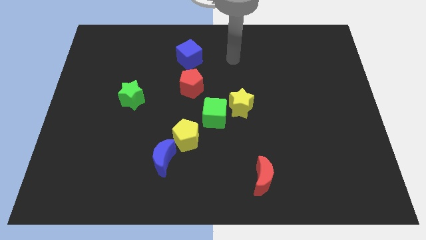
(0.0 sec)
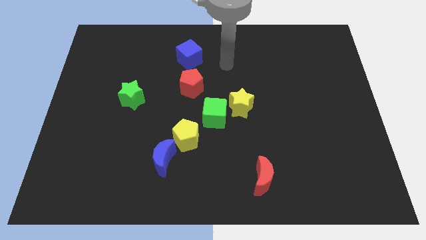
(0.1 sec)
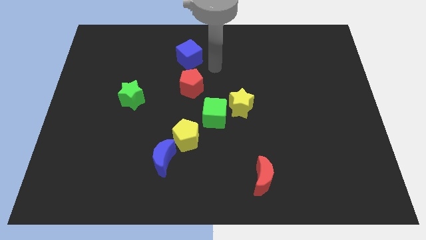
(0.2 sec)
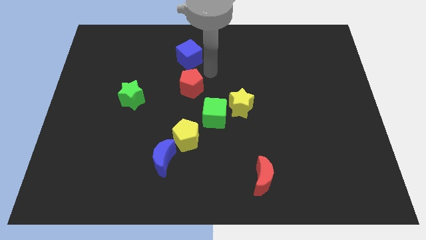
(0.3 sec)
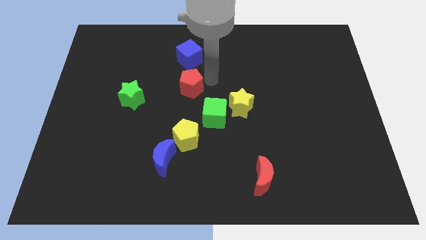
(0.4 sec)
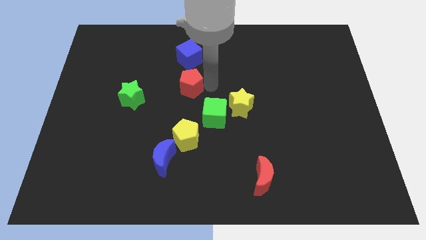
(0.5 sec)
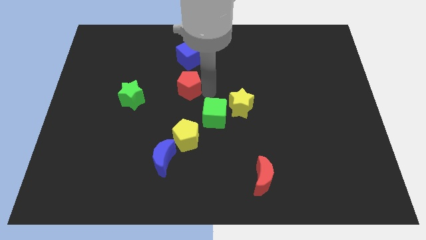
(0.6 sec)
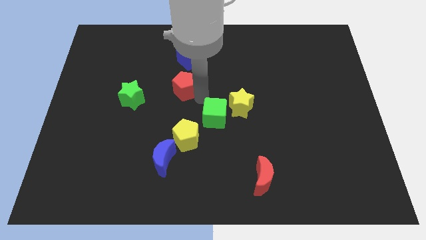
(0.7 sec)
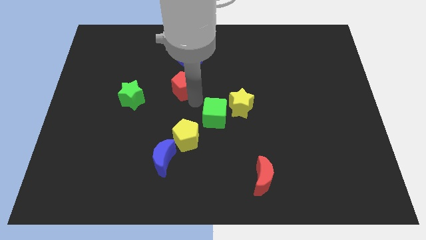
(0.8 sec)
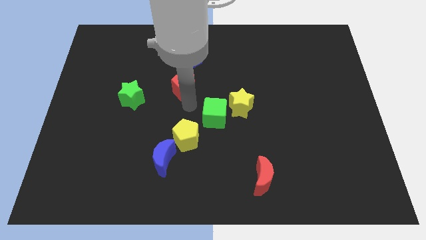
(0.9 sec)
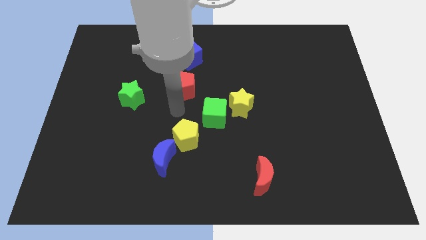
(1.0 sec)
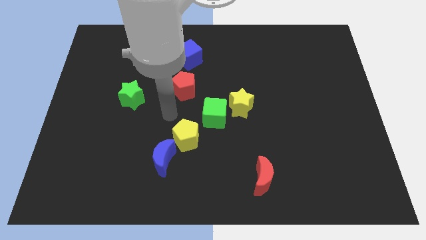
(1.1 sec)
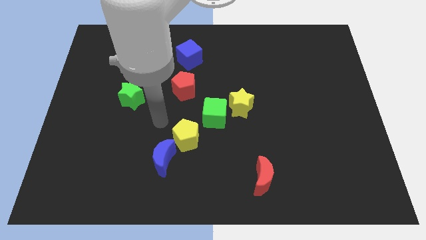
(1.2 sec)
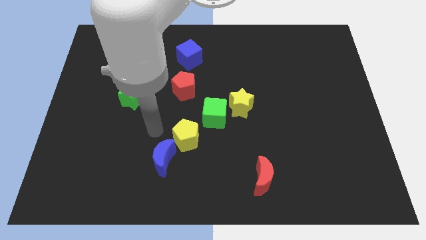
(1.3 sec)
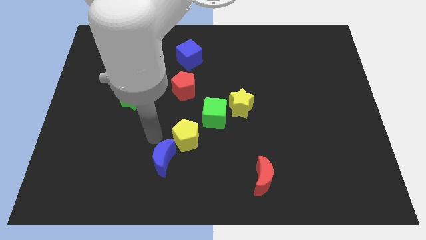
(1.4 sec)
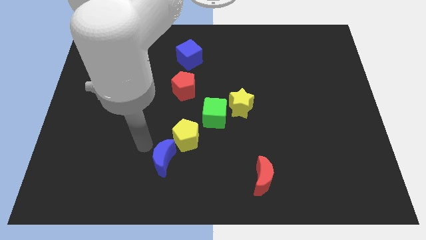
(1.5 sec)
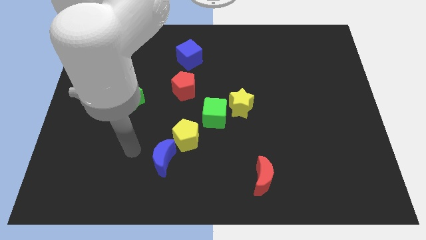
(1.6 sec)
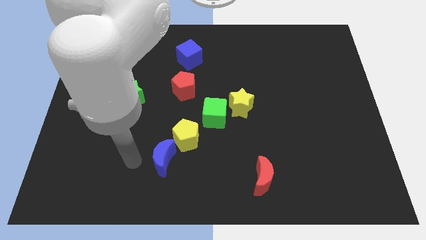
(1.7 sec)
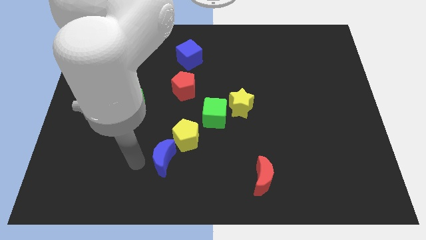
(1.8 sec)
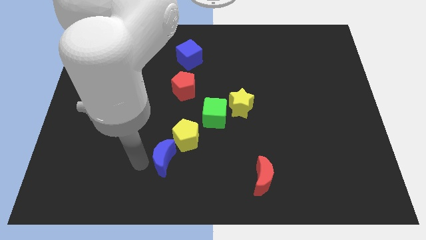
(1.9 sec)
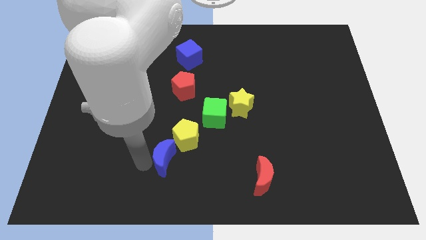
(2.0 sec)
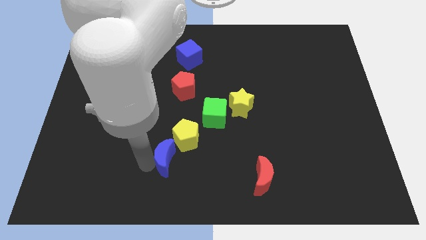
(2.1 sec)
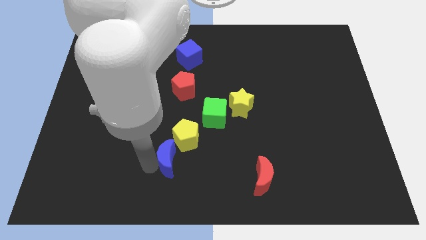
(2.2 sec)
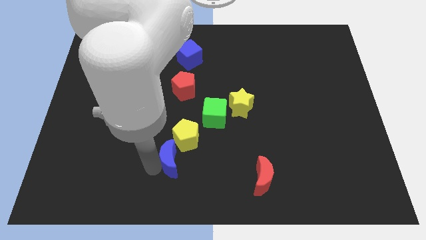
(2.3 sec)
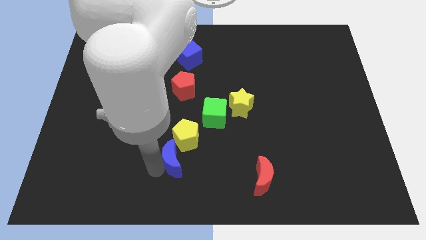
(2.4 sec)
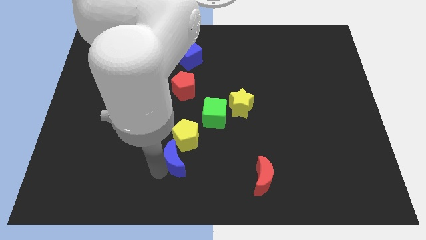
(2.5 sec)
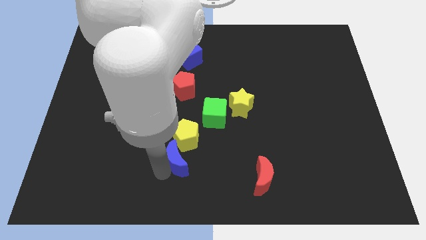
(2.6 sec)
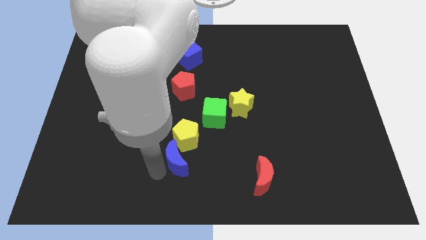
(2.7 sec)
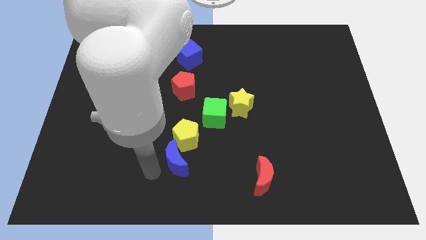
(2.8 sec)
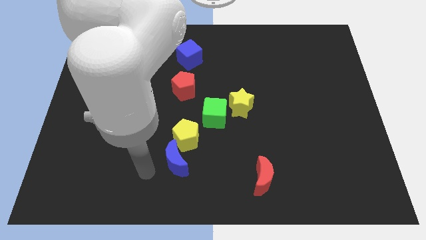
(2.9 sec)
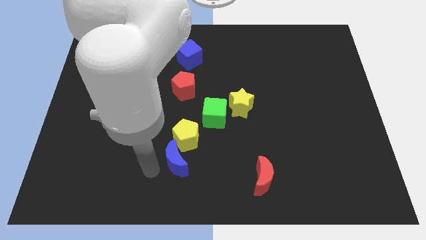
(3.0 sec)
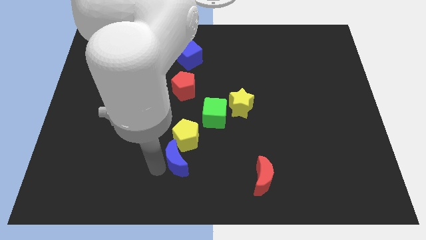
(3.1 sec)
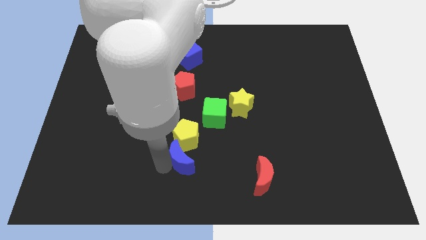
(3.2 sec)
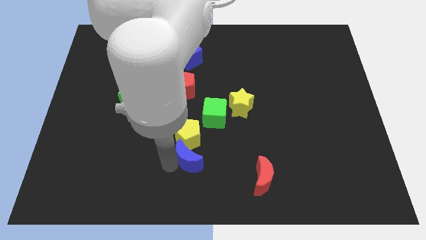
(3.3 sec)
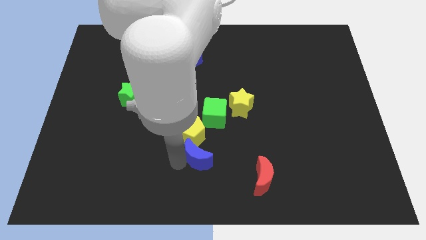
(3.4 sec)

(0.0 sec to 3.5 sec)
slightly slide the blue moon right

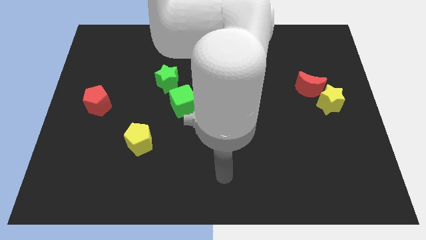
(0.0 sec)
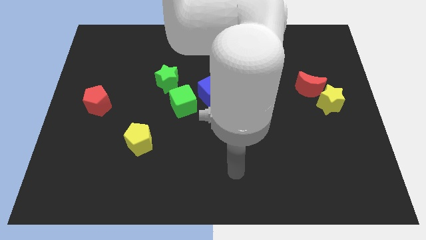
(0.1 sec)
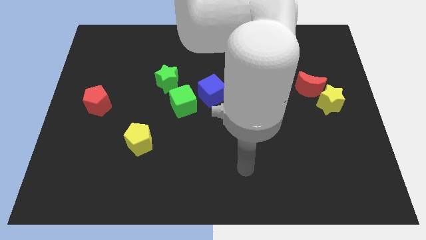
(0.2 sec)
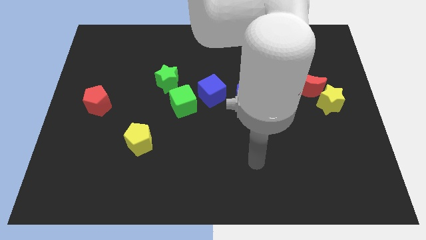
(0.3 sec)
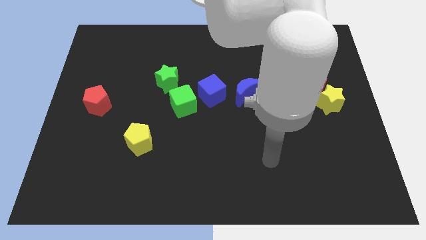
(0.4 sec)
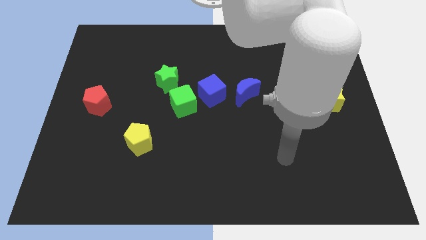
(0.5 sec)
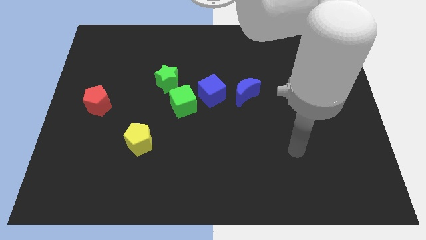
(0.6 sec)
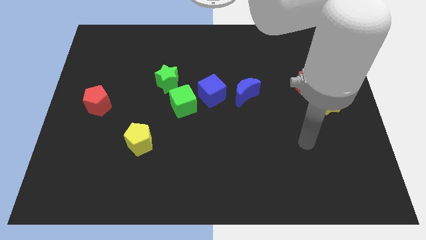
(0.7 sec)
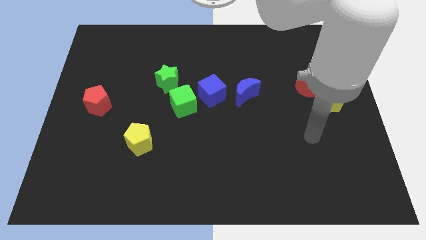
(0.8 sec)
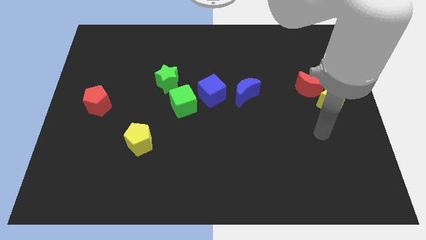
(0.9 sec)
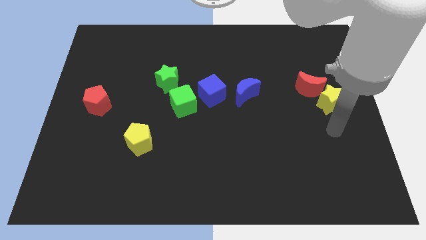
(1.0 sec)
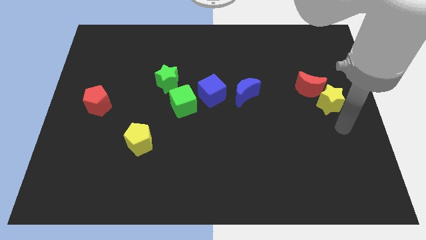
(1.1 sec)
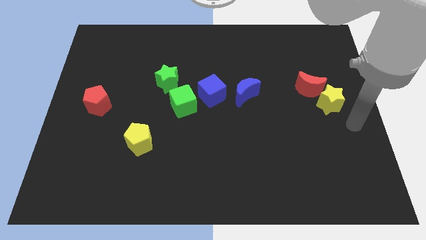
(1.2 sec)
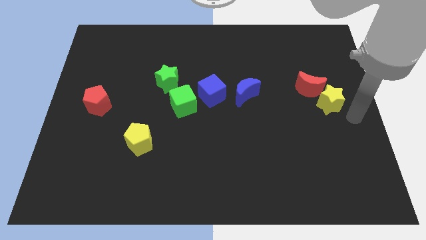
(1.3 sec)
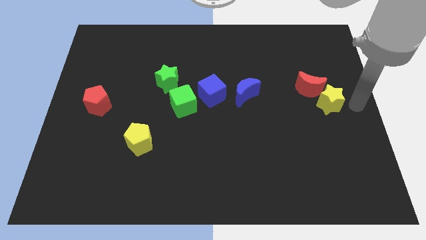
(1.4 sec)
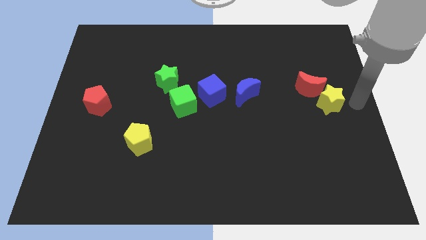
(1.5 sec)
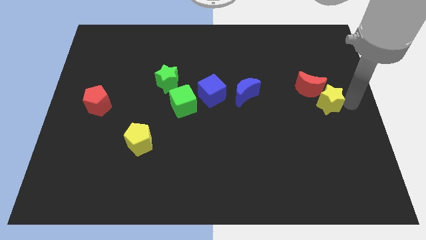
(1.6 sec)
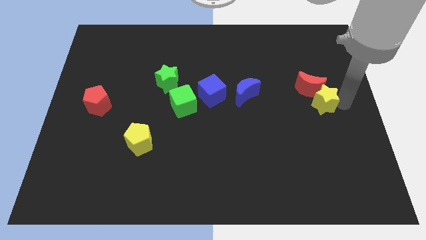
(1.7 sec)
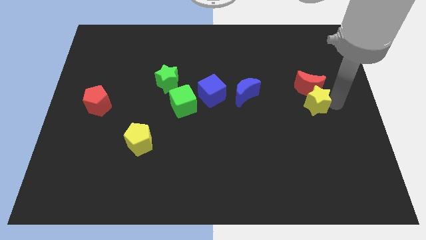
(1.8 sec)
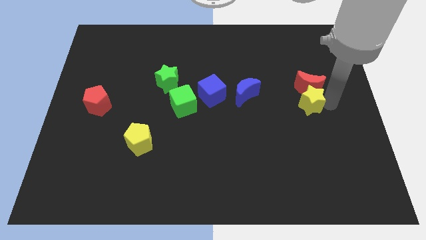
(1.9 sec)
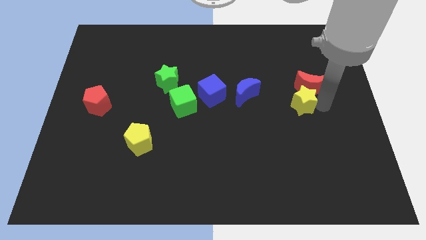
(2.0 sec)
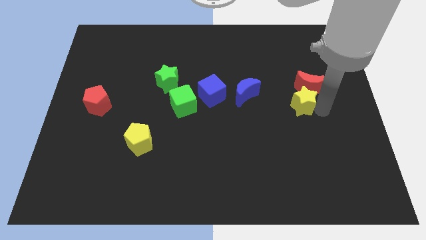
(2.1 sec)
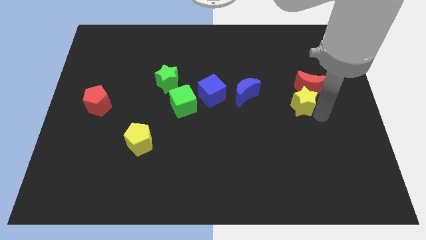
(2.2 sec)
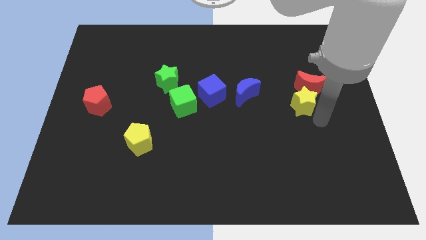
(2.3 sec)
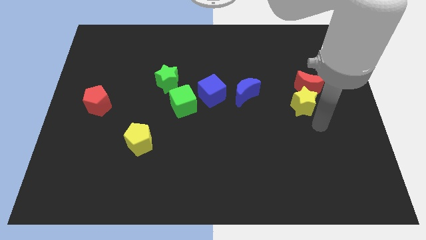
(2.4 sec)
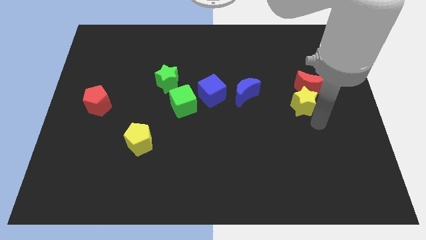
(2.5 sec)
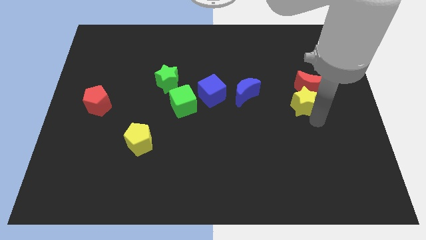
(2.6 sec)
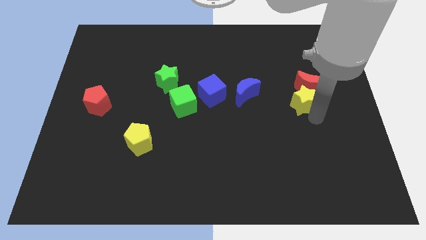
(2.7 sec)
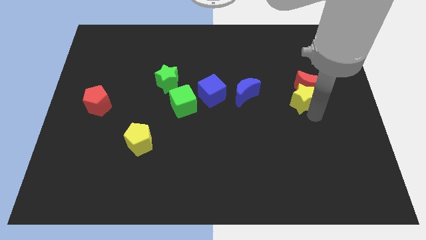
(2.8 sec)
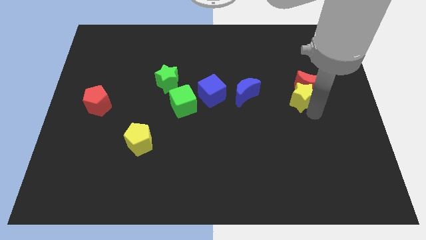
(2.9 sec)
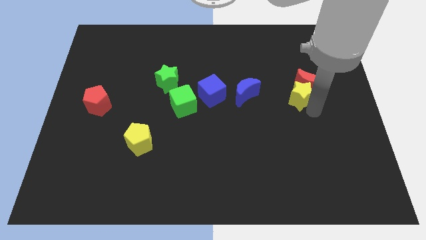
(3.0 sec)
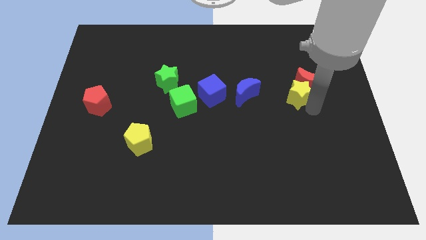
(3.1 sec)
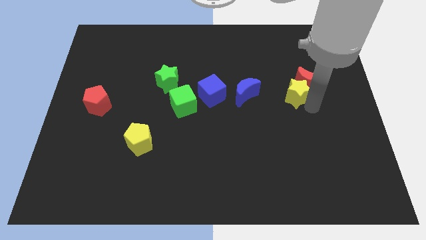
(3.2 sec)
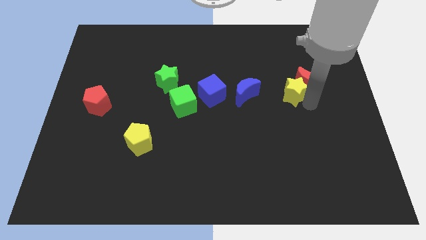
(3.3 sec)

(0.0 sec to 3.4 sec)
push the yellow star a bit diagonally up and to the left

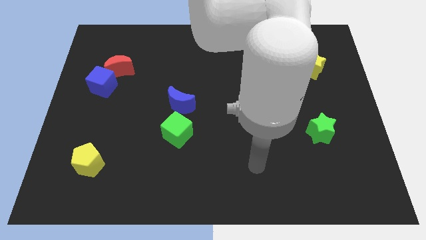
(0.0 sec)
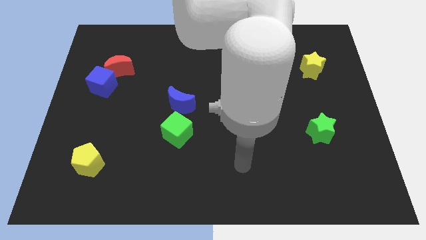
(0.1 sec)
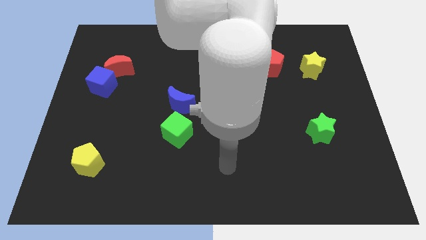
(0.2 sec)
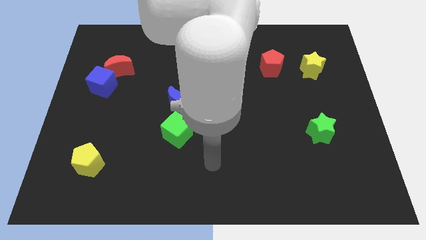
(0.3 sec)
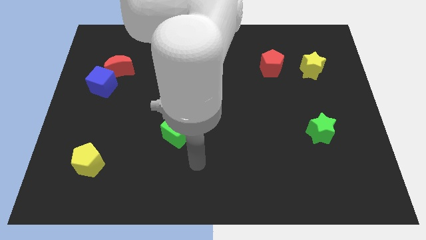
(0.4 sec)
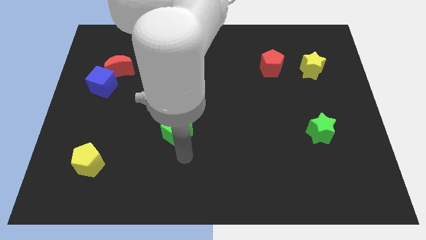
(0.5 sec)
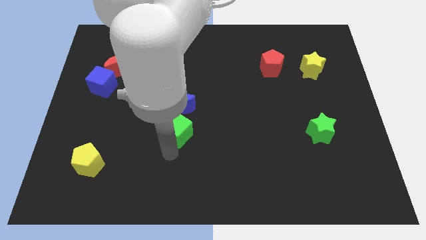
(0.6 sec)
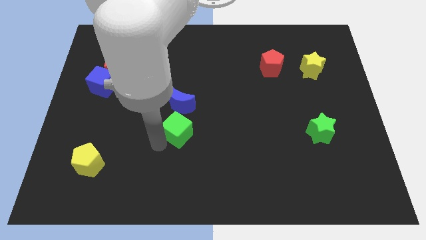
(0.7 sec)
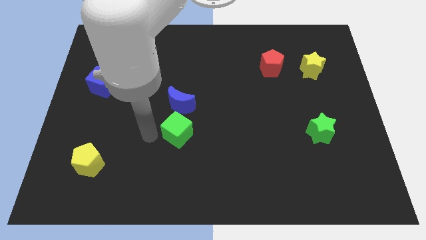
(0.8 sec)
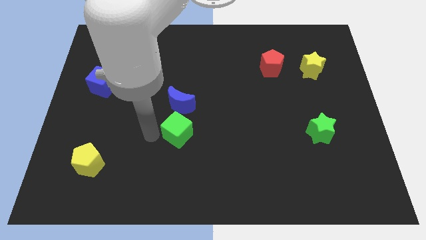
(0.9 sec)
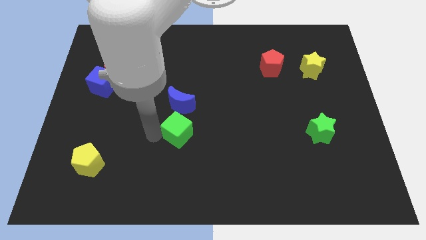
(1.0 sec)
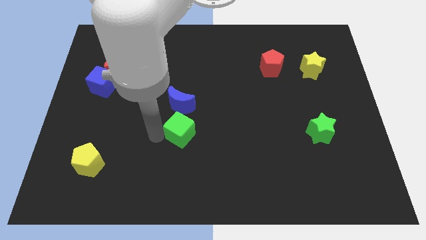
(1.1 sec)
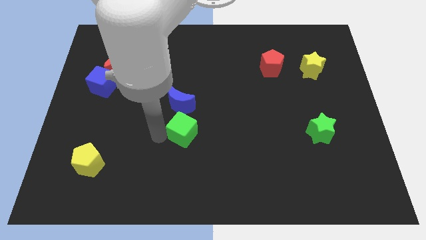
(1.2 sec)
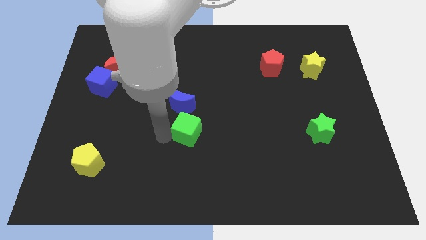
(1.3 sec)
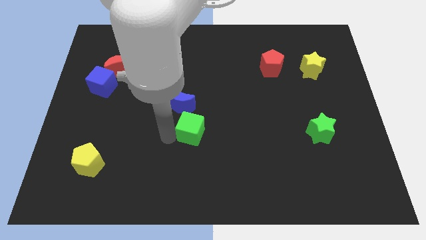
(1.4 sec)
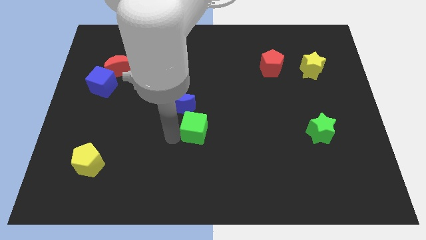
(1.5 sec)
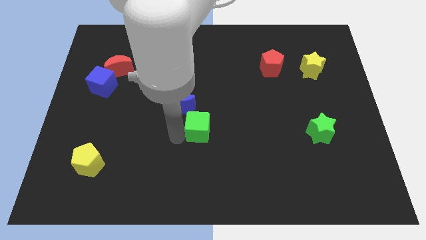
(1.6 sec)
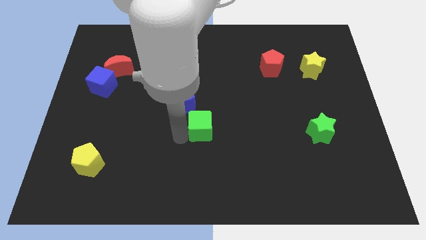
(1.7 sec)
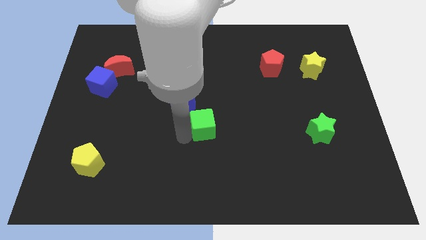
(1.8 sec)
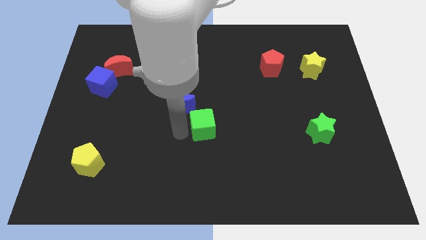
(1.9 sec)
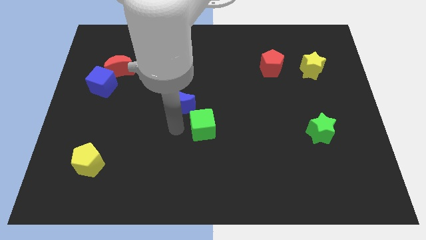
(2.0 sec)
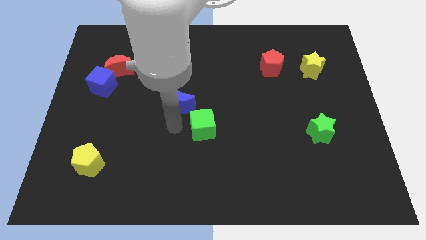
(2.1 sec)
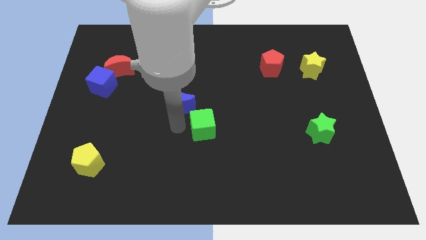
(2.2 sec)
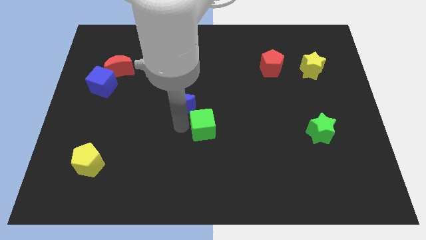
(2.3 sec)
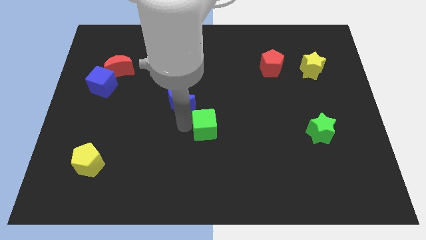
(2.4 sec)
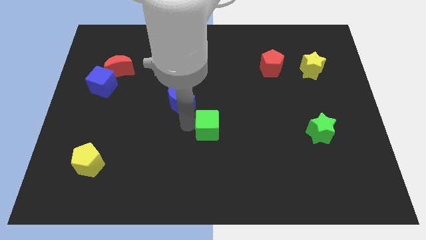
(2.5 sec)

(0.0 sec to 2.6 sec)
slightly push the green cube right
